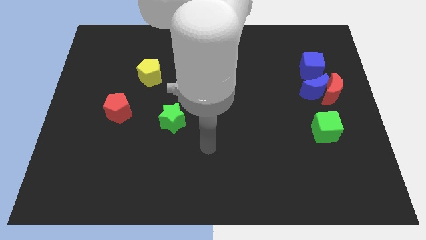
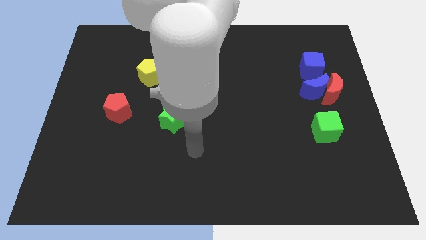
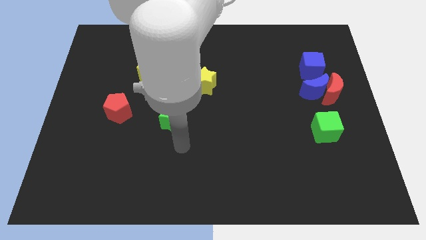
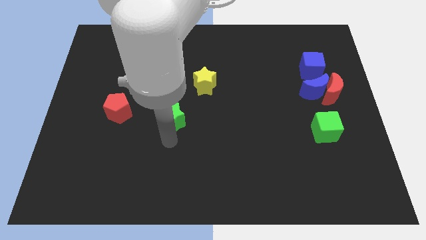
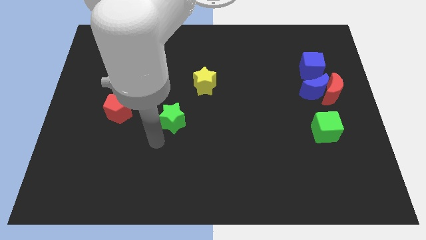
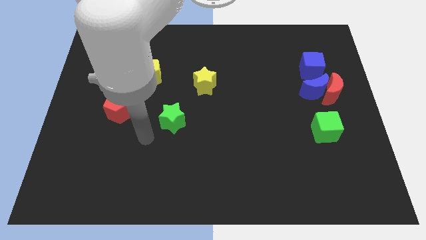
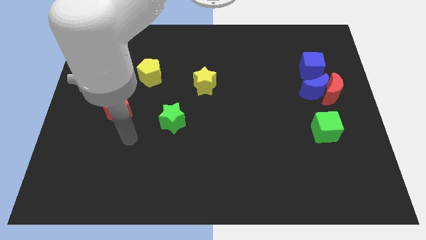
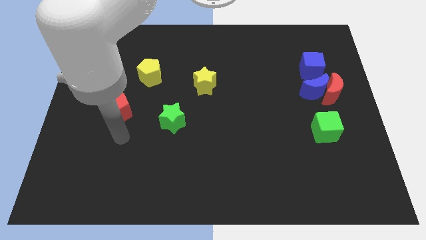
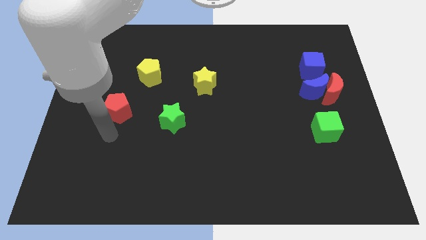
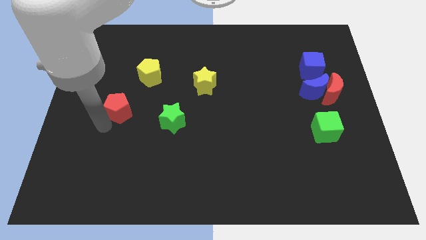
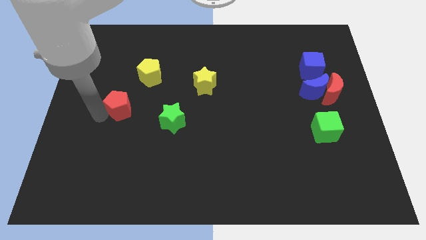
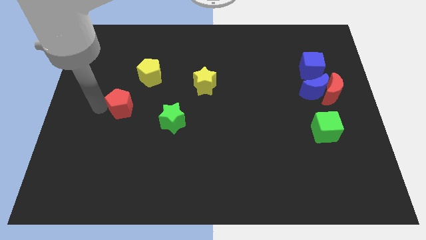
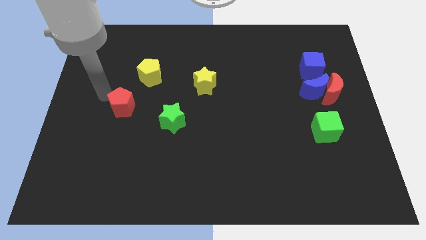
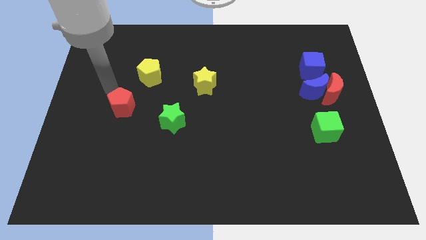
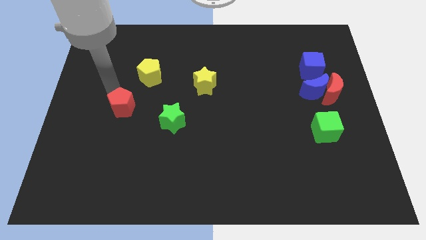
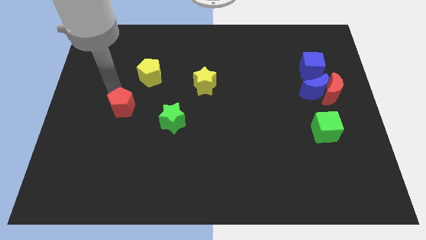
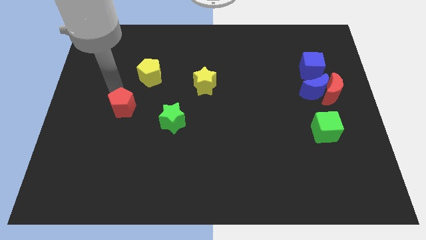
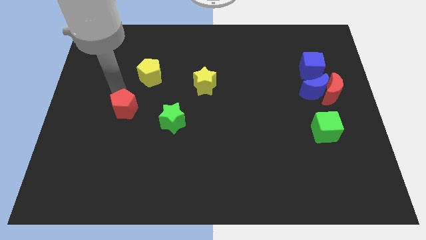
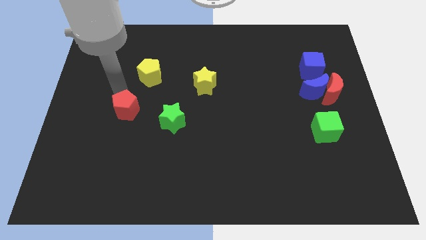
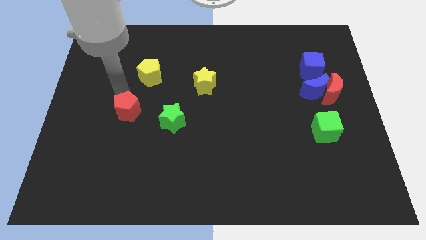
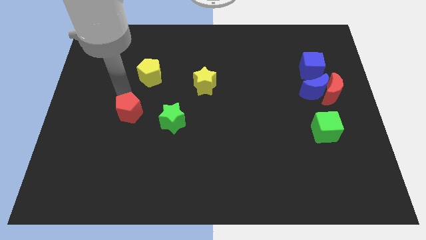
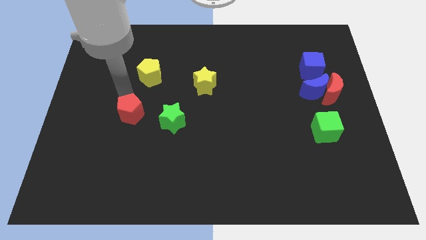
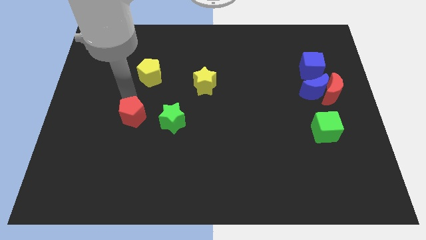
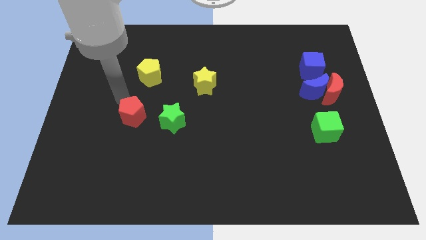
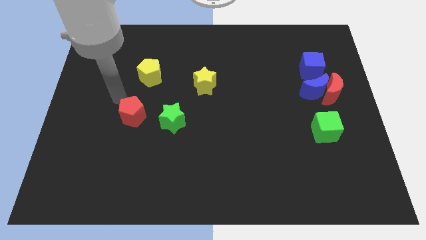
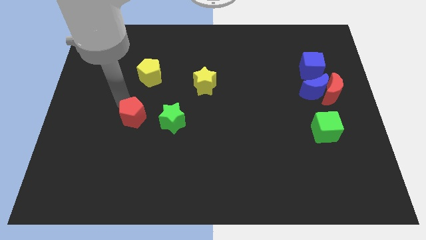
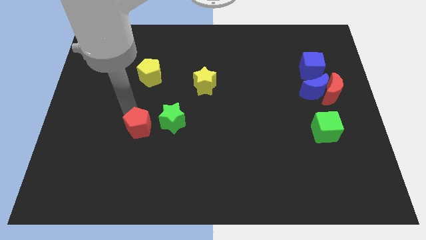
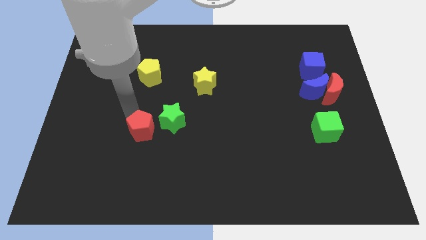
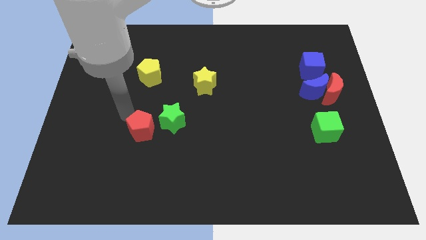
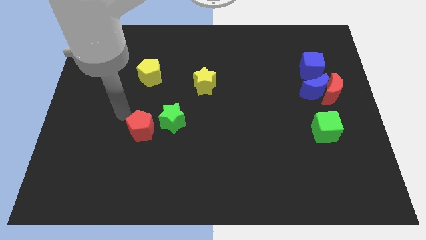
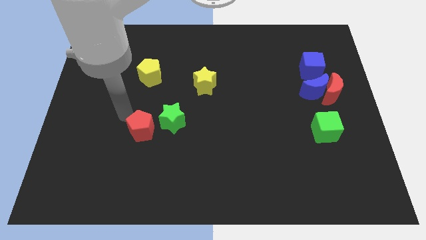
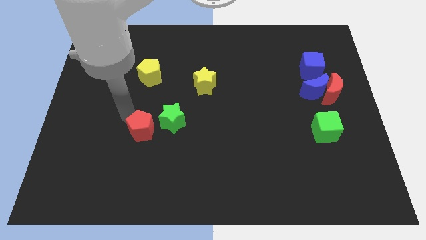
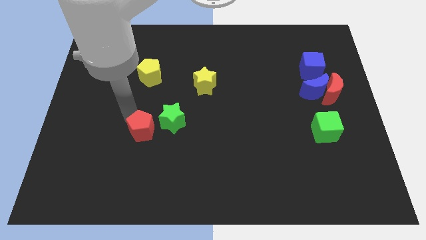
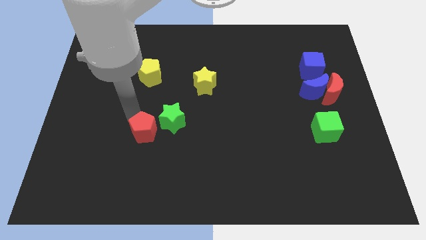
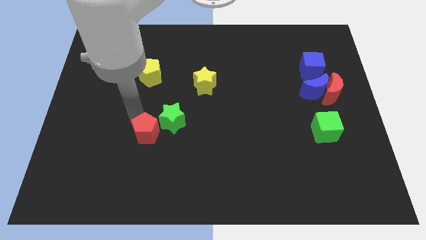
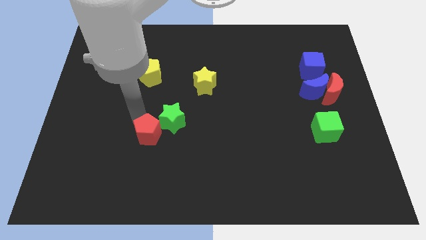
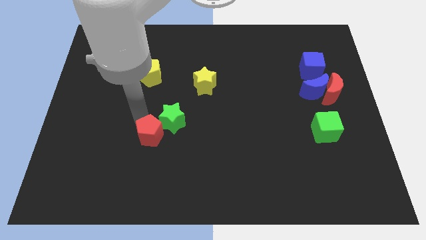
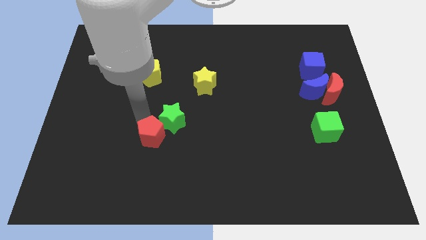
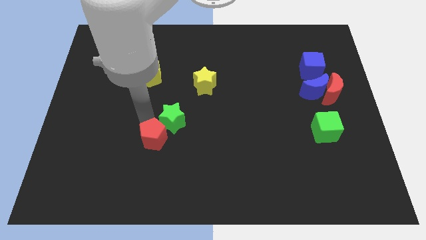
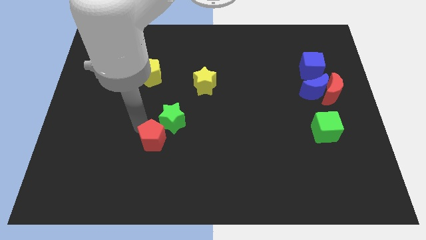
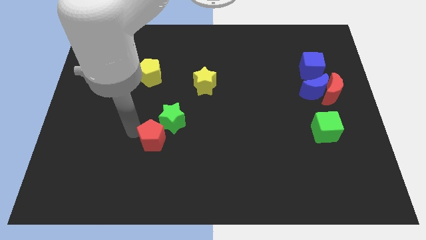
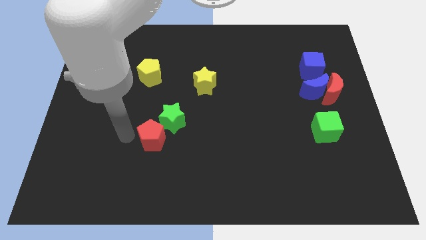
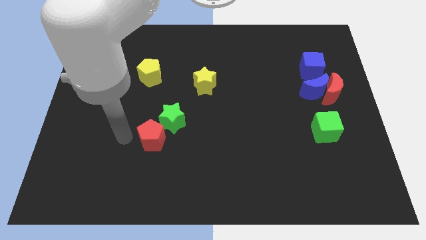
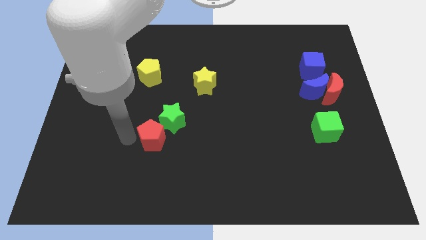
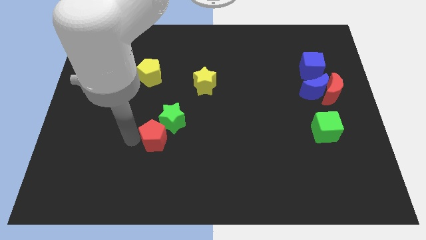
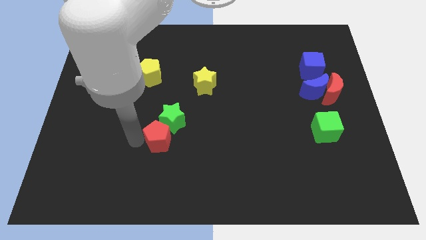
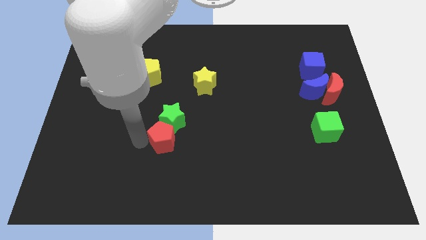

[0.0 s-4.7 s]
move the red pentagon to the bottom right of the green star

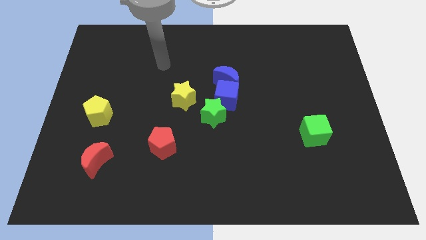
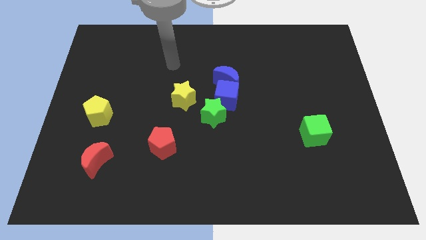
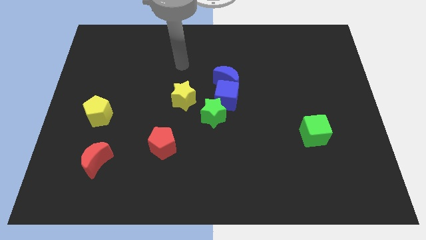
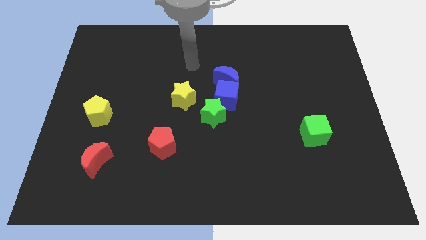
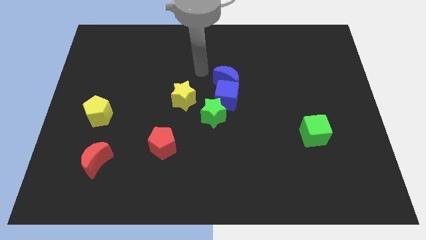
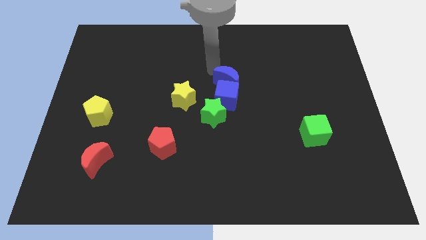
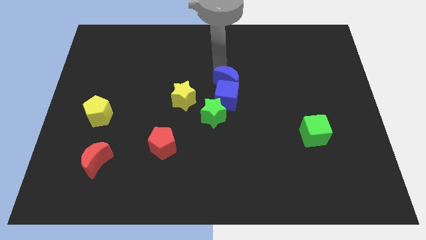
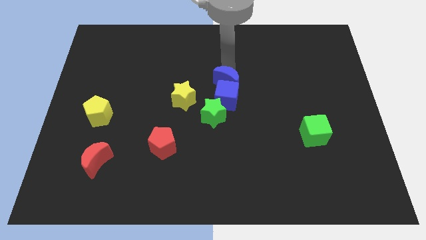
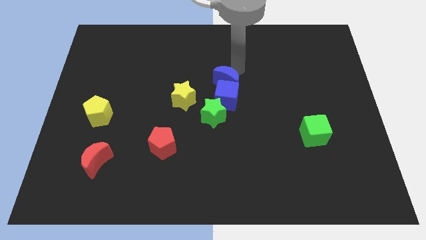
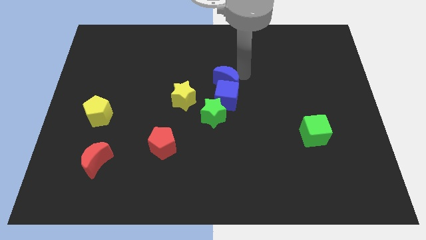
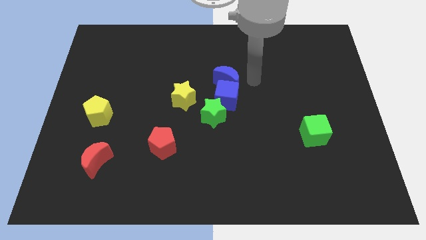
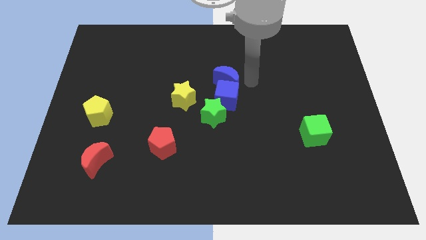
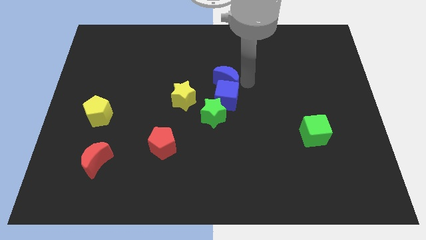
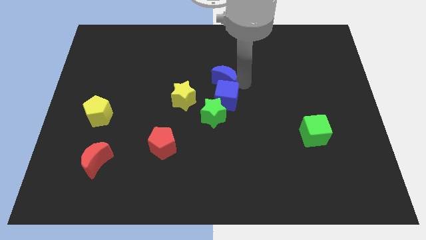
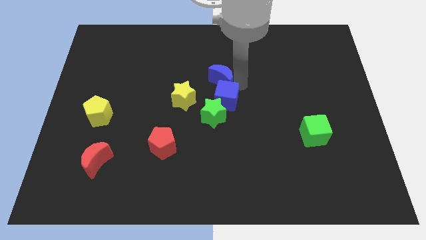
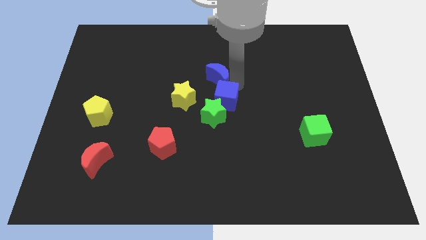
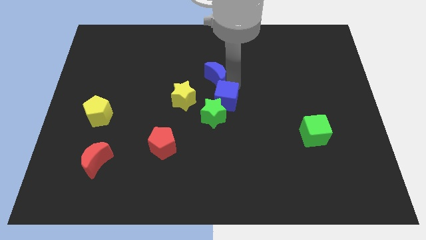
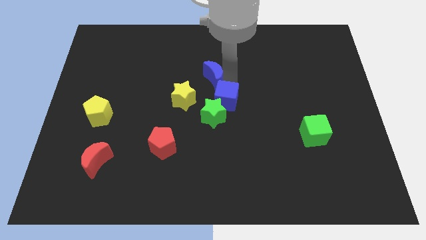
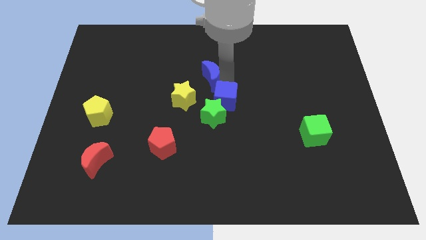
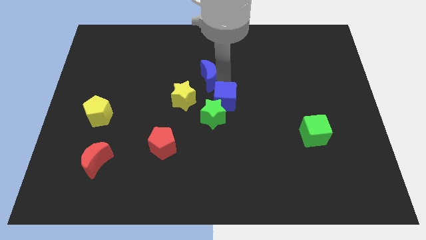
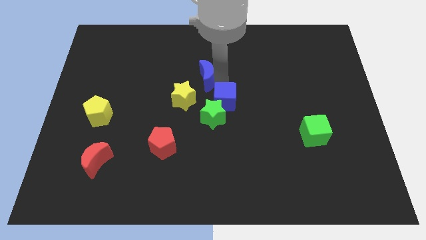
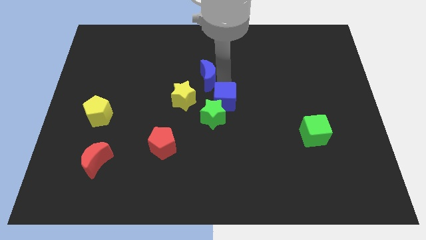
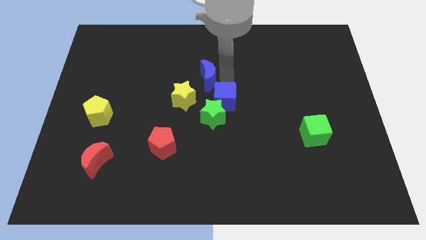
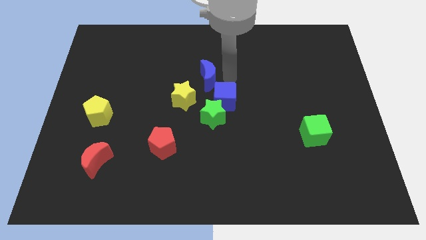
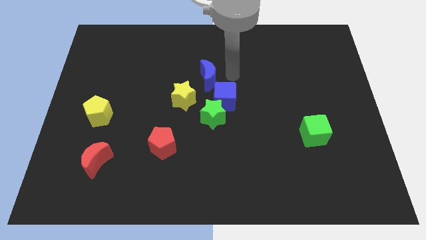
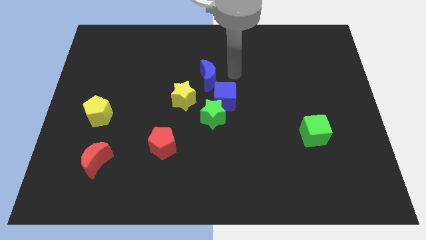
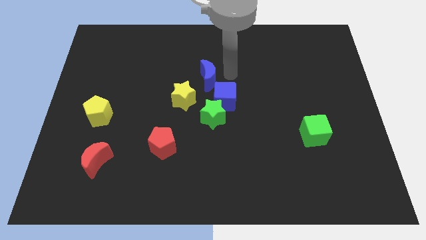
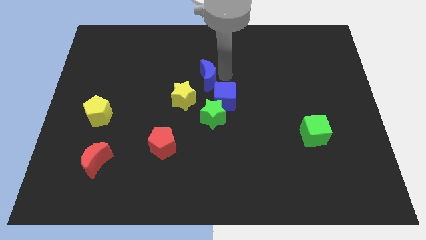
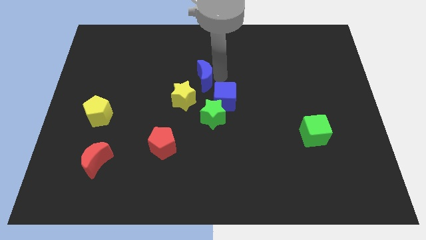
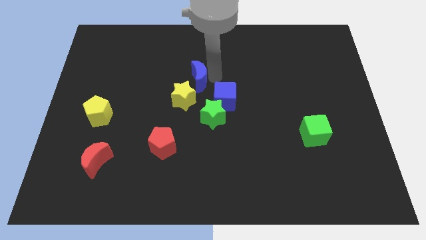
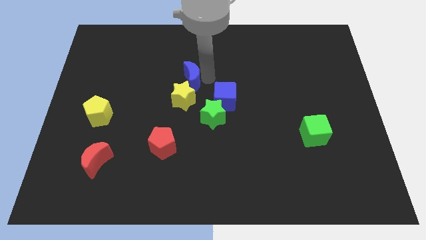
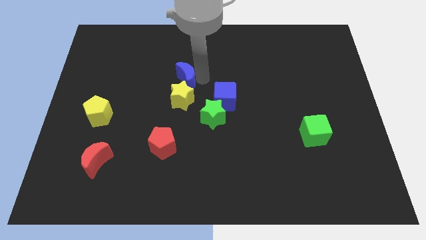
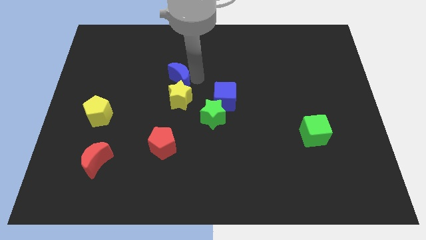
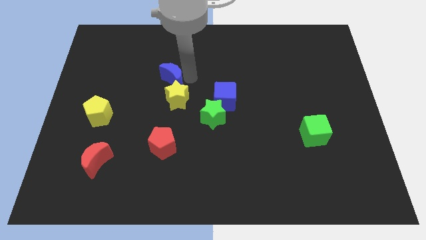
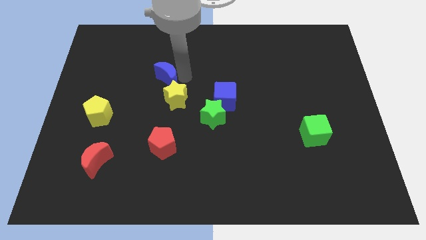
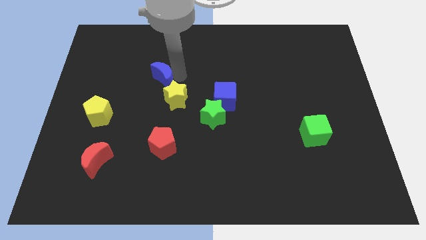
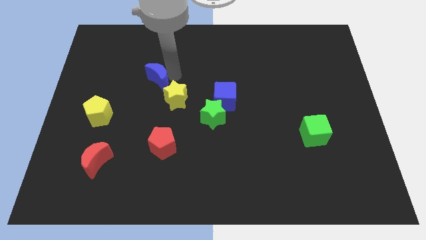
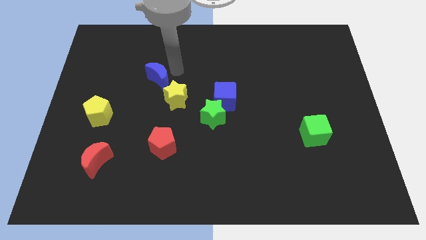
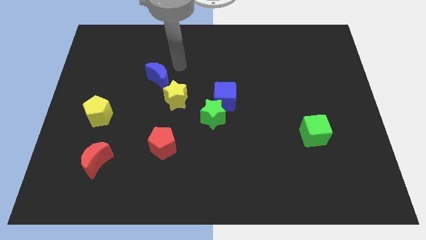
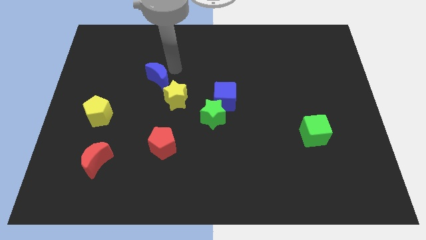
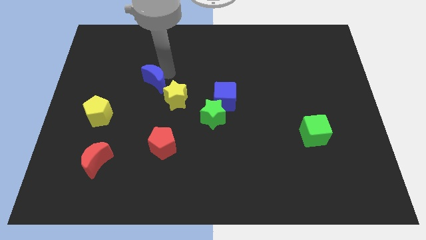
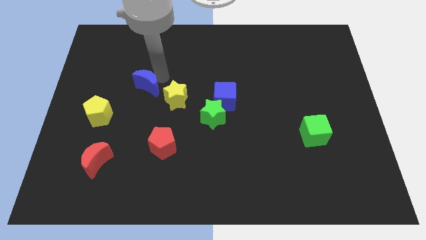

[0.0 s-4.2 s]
push the blue moon to the left side of the yellow star
